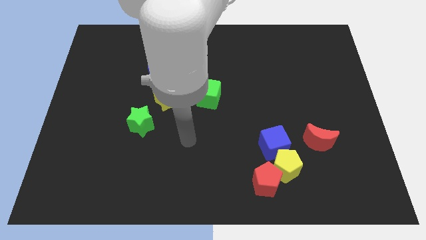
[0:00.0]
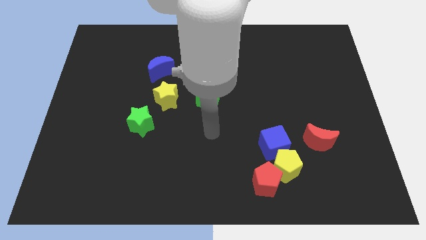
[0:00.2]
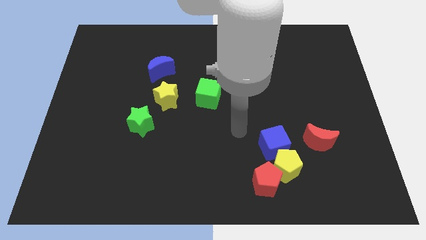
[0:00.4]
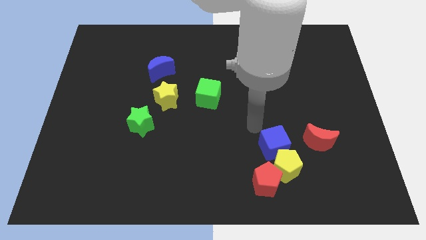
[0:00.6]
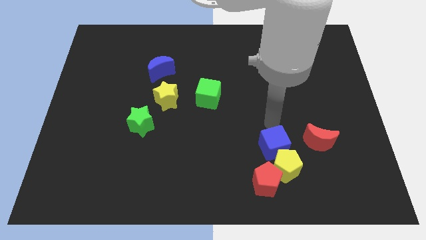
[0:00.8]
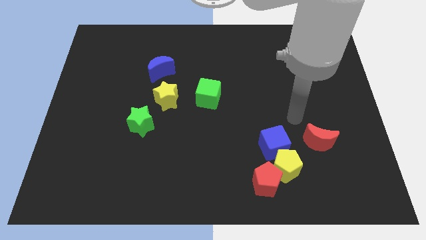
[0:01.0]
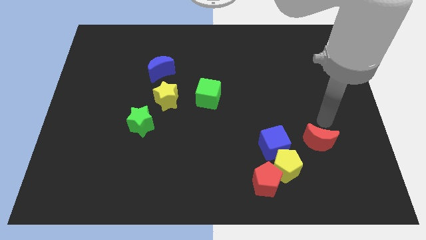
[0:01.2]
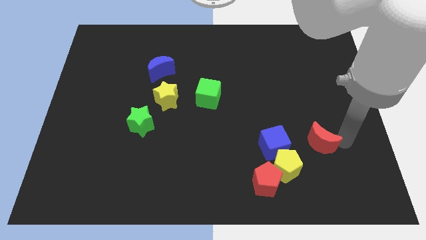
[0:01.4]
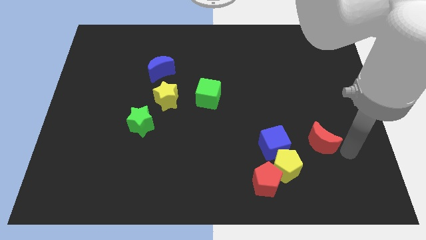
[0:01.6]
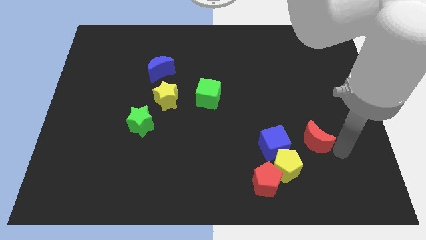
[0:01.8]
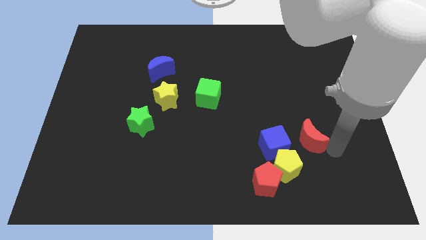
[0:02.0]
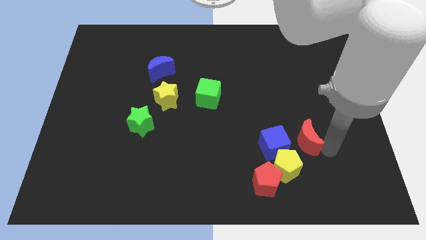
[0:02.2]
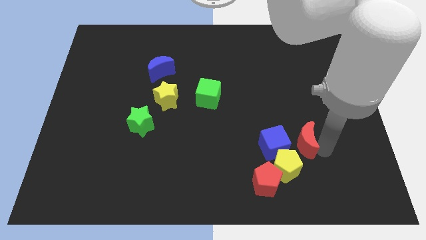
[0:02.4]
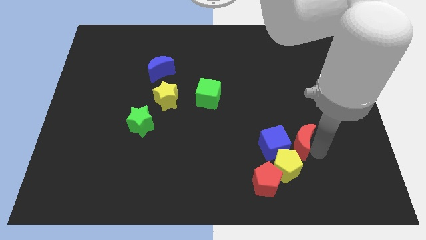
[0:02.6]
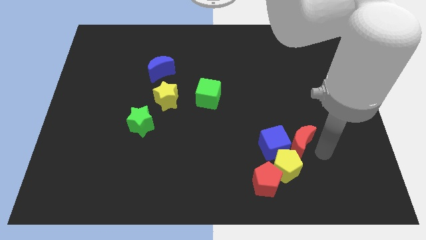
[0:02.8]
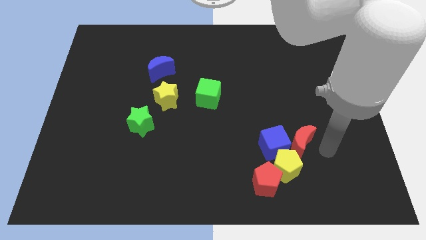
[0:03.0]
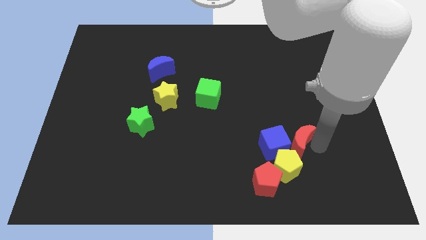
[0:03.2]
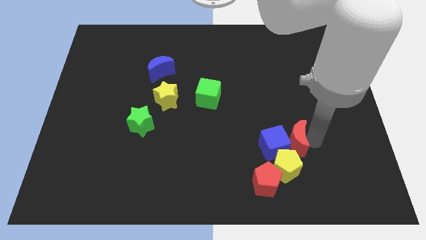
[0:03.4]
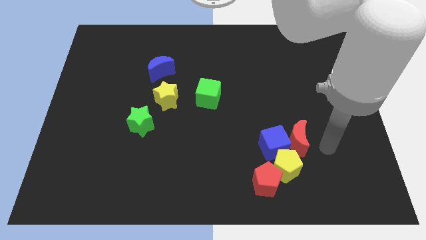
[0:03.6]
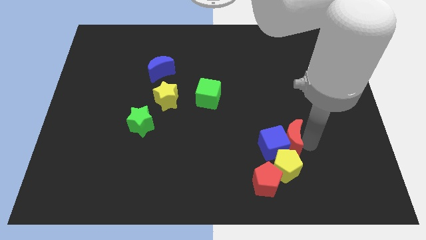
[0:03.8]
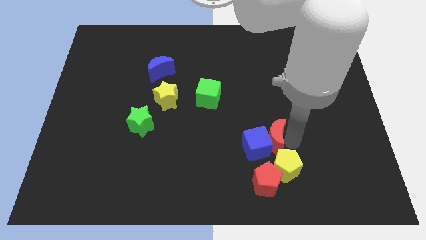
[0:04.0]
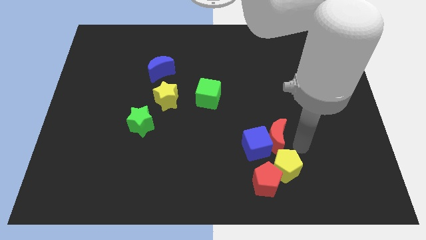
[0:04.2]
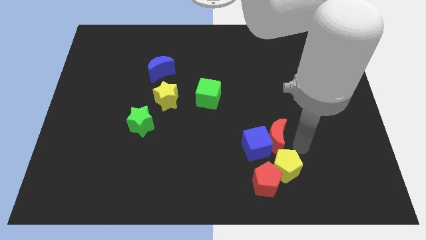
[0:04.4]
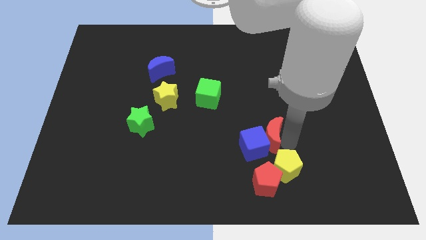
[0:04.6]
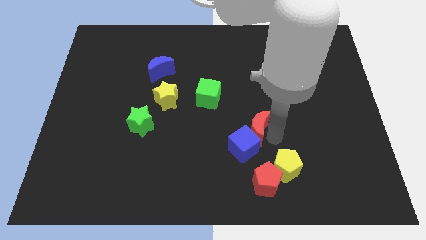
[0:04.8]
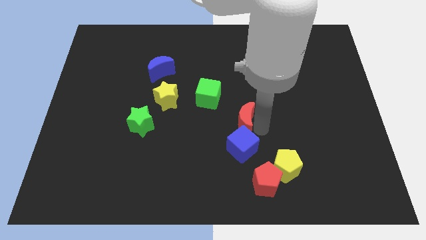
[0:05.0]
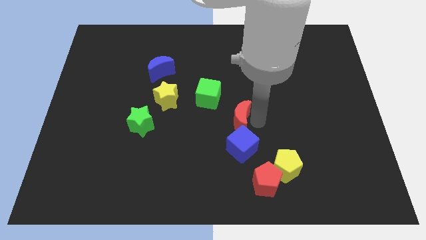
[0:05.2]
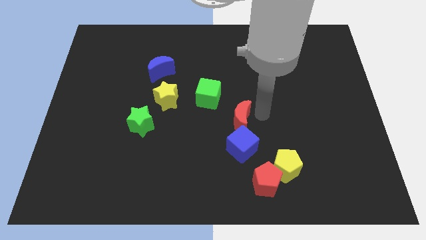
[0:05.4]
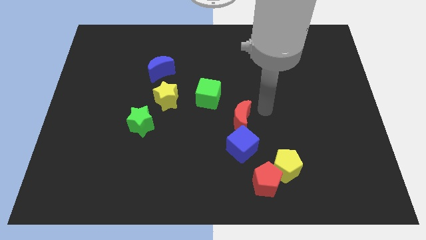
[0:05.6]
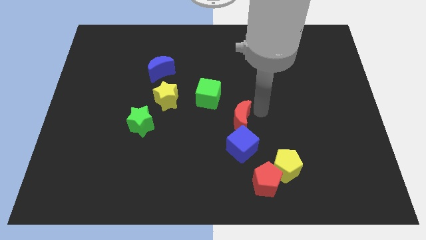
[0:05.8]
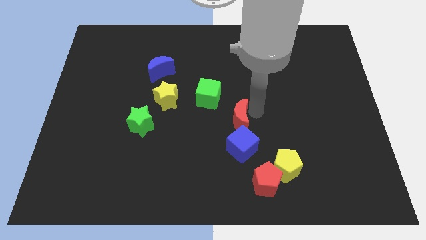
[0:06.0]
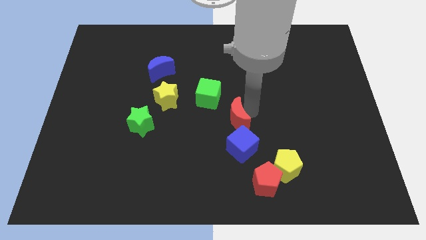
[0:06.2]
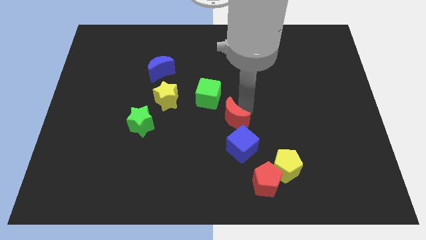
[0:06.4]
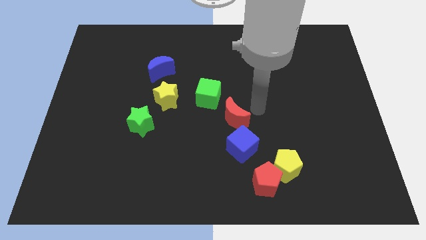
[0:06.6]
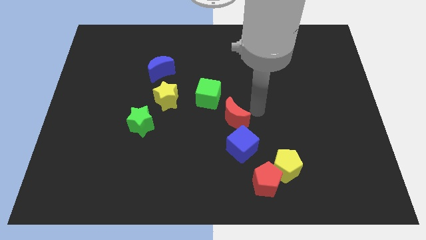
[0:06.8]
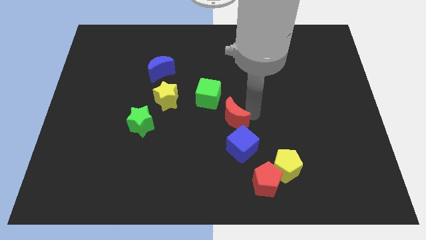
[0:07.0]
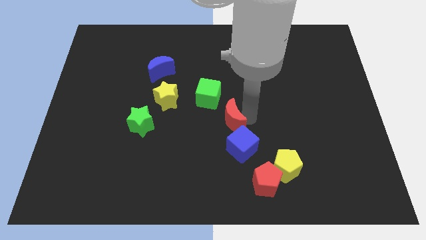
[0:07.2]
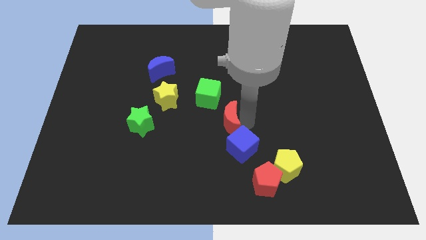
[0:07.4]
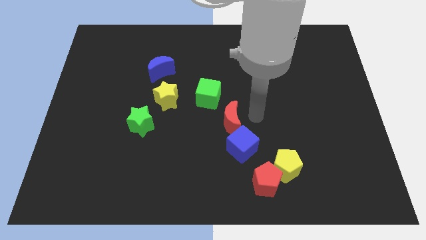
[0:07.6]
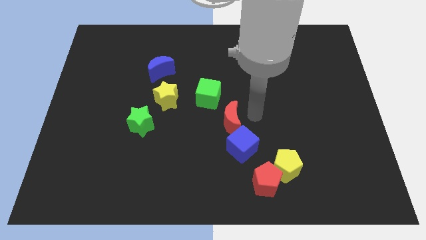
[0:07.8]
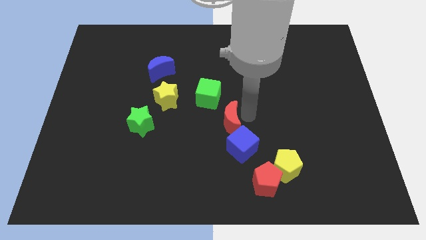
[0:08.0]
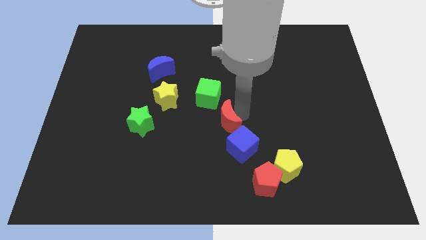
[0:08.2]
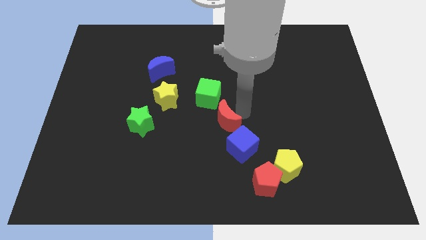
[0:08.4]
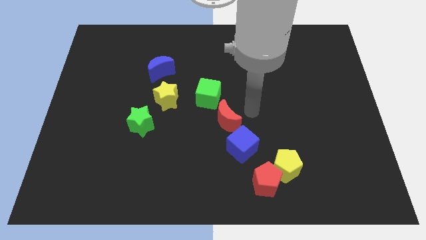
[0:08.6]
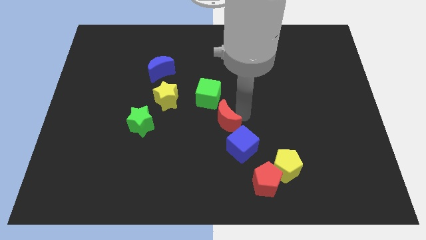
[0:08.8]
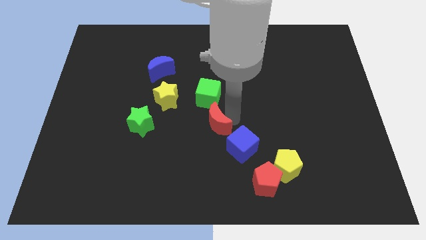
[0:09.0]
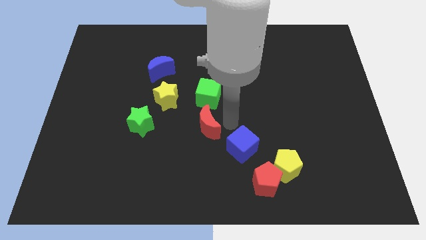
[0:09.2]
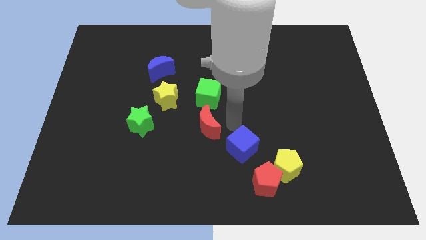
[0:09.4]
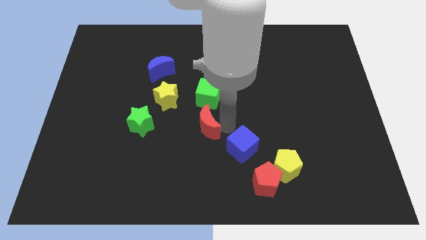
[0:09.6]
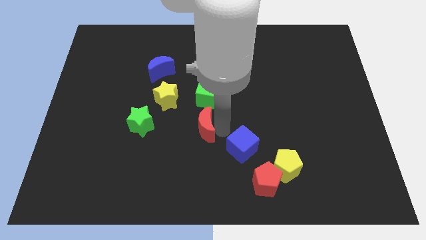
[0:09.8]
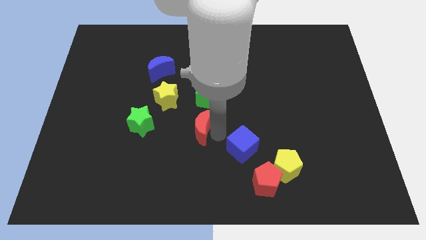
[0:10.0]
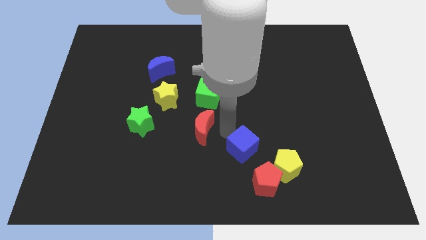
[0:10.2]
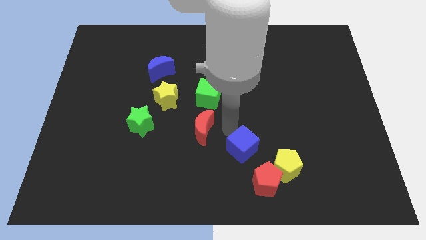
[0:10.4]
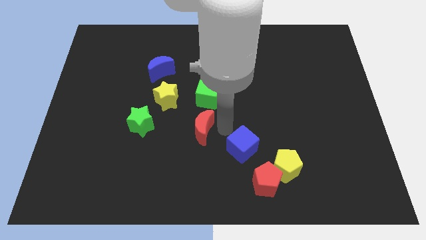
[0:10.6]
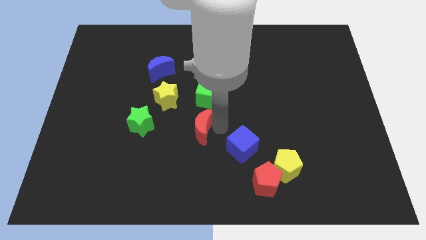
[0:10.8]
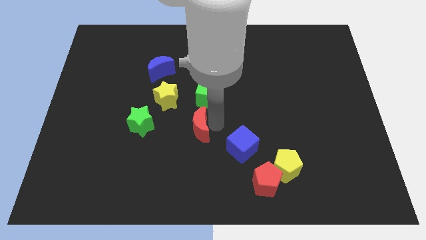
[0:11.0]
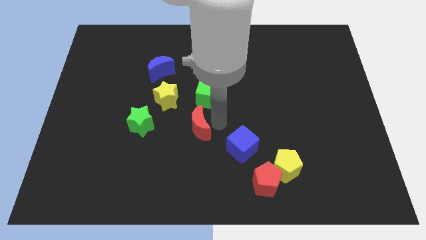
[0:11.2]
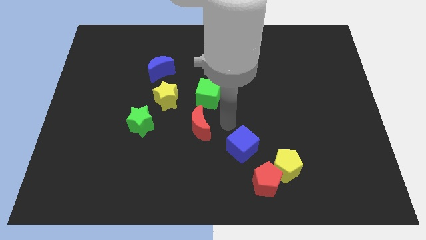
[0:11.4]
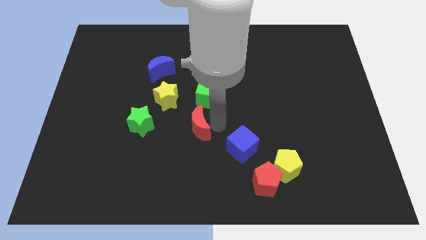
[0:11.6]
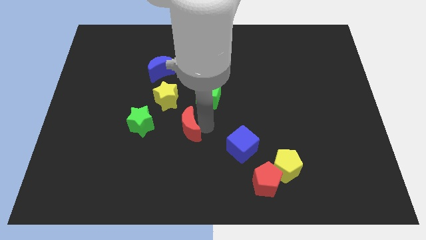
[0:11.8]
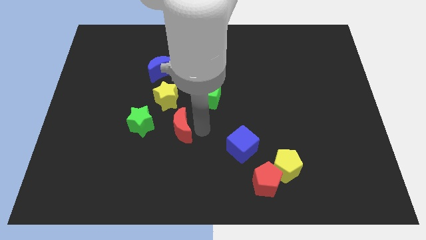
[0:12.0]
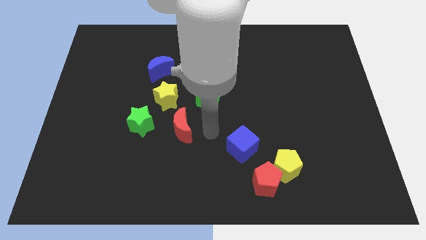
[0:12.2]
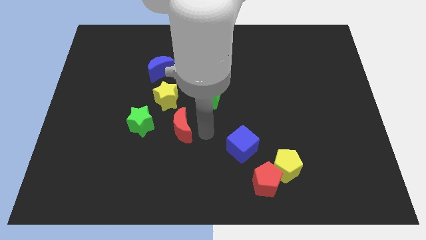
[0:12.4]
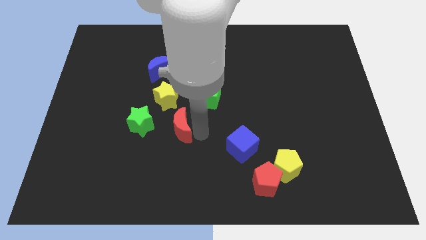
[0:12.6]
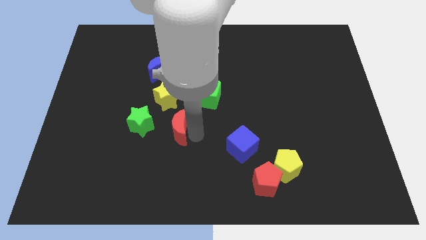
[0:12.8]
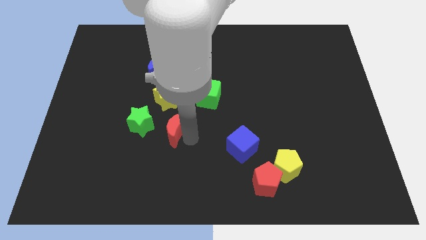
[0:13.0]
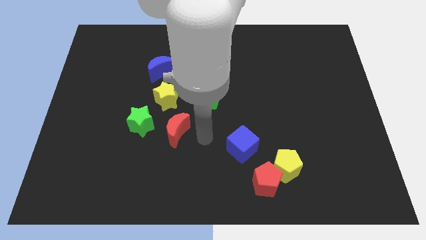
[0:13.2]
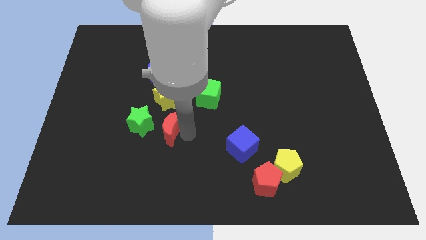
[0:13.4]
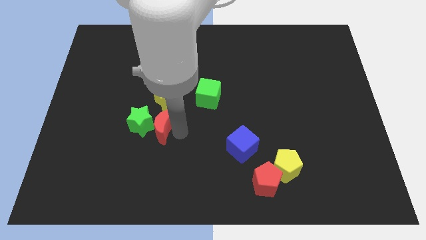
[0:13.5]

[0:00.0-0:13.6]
push the red moon next to the green star

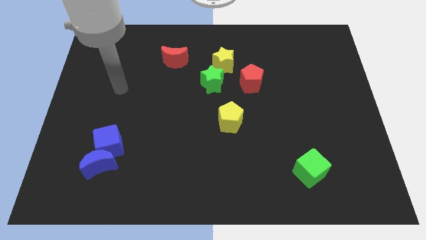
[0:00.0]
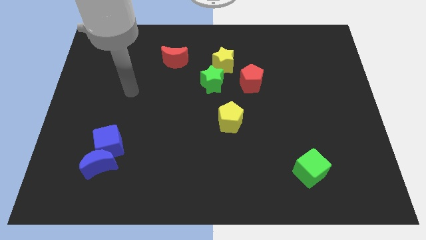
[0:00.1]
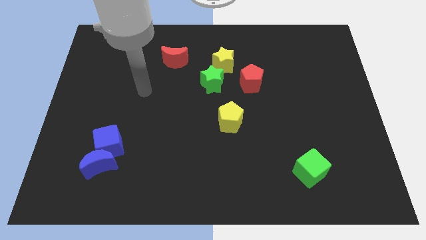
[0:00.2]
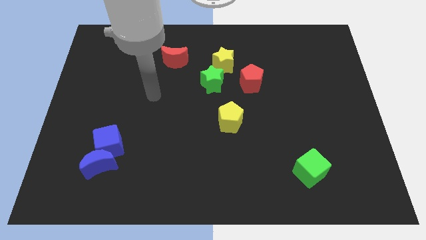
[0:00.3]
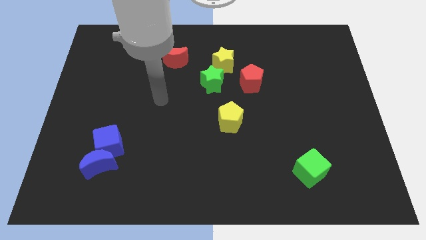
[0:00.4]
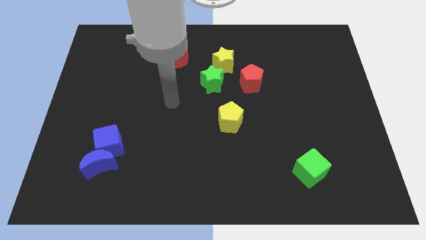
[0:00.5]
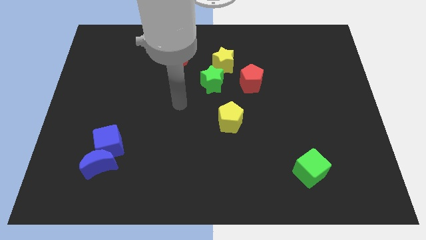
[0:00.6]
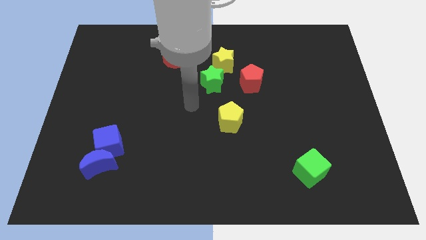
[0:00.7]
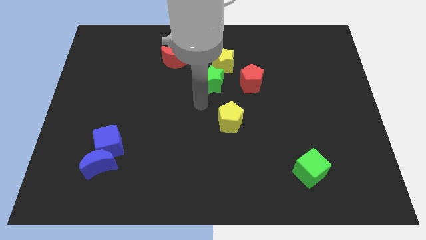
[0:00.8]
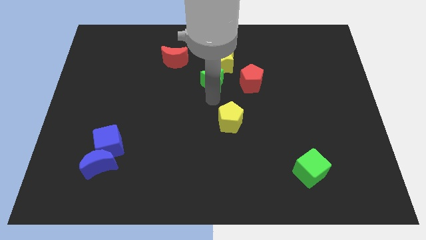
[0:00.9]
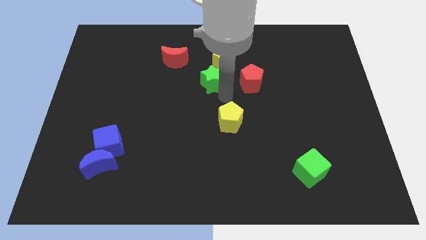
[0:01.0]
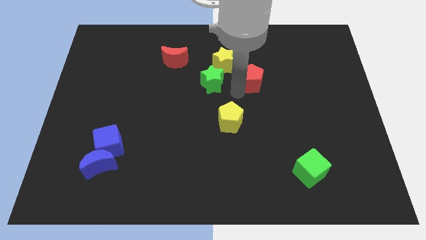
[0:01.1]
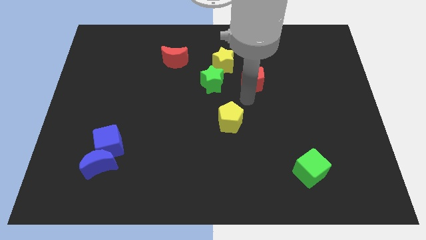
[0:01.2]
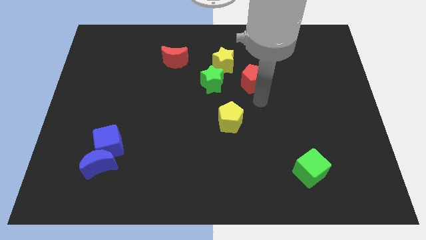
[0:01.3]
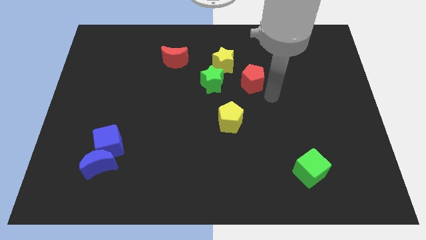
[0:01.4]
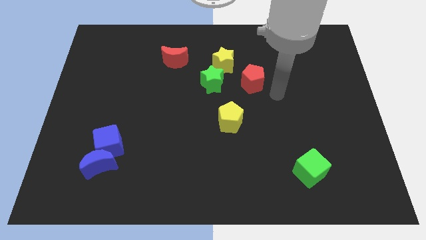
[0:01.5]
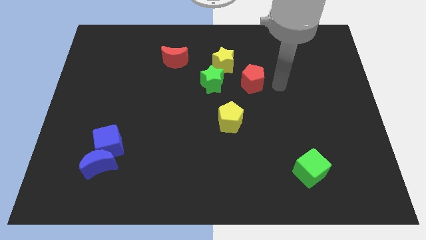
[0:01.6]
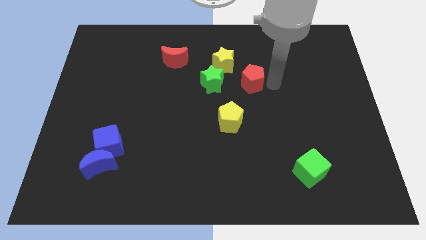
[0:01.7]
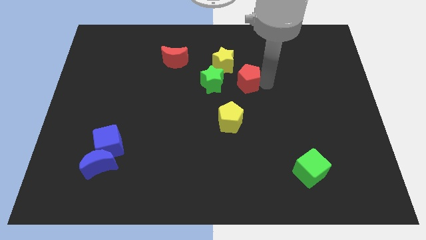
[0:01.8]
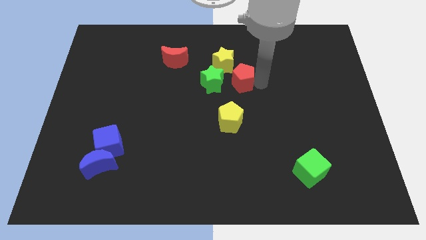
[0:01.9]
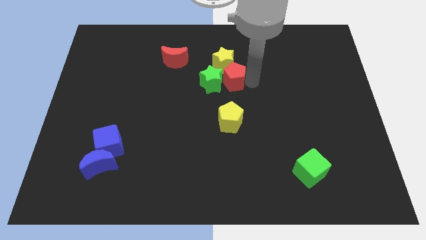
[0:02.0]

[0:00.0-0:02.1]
push the red pentagon next to the green star
